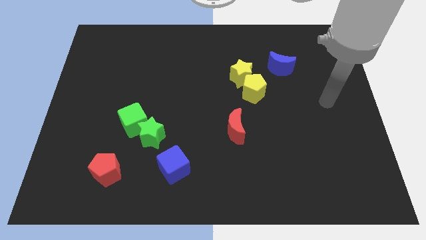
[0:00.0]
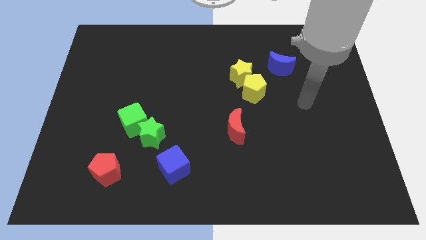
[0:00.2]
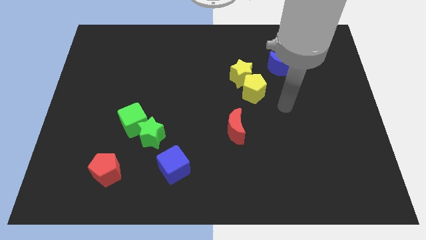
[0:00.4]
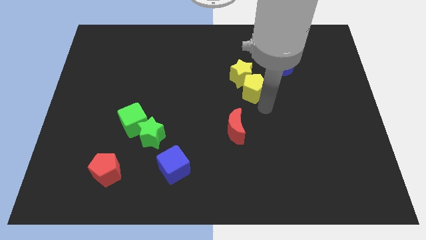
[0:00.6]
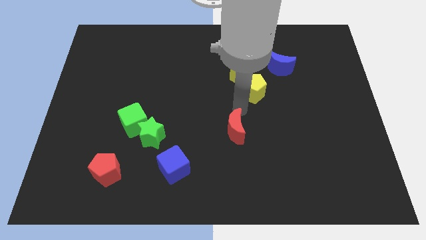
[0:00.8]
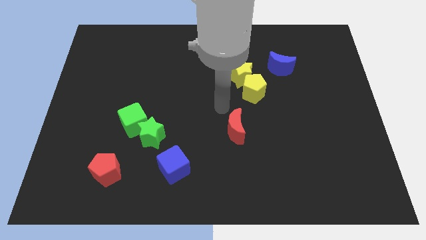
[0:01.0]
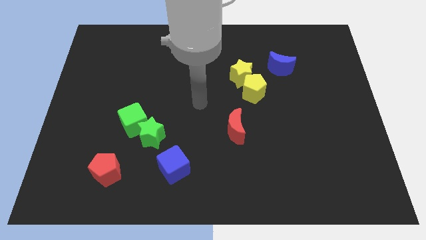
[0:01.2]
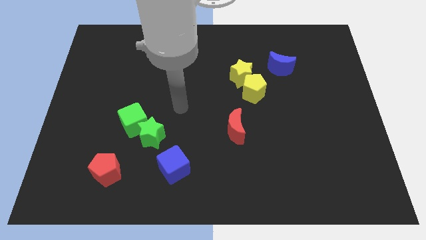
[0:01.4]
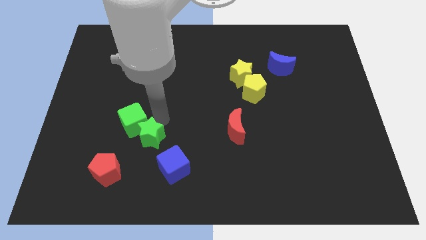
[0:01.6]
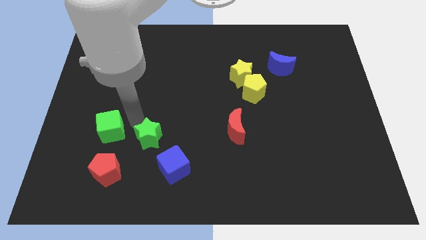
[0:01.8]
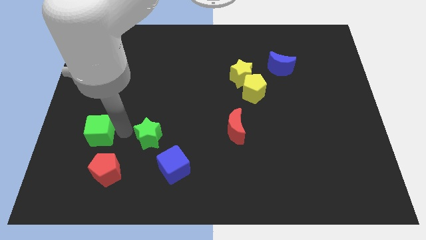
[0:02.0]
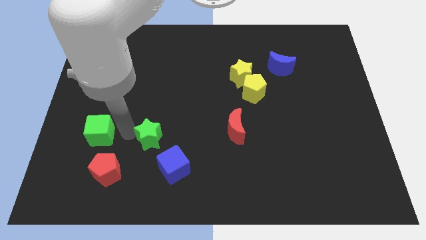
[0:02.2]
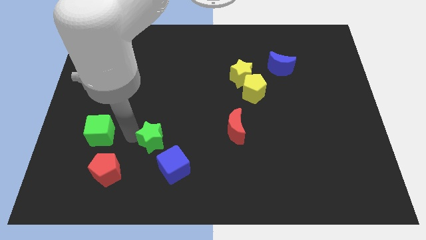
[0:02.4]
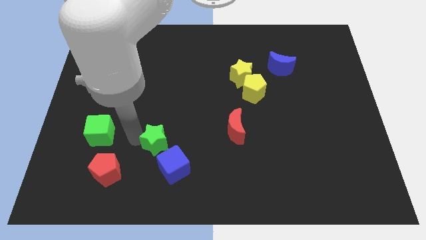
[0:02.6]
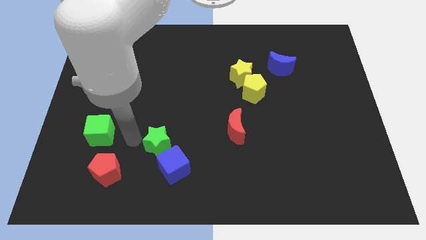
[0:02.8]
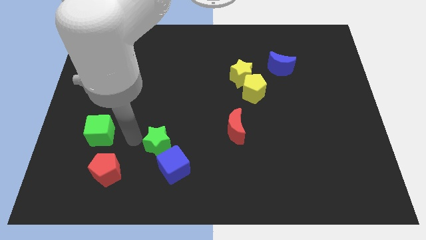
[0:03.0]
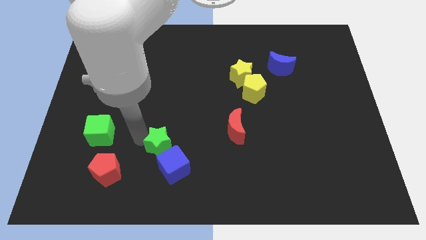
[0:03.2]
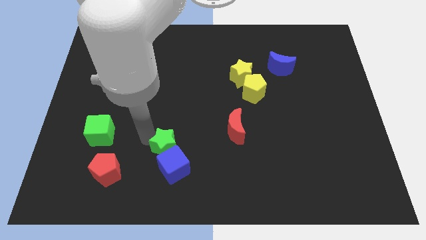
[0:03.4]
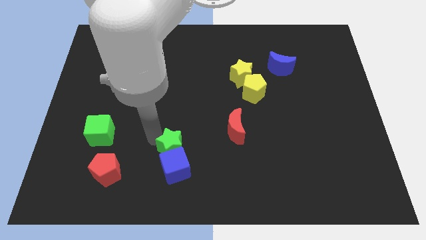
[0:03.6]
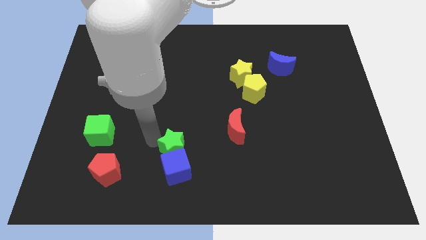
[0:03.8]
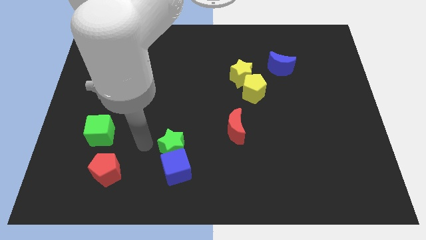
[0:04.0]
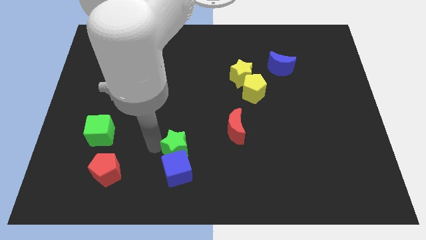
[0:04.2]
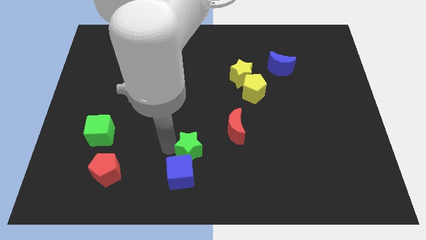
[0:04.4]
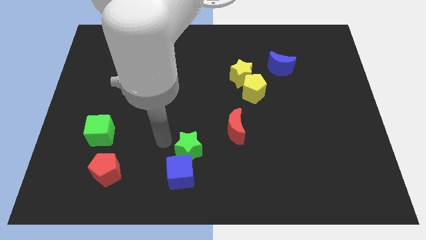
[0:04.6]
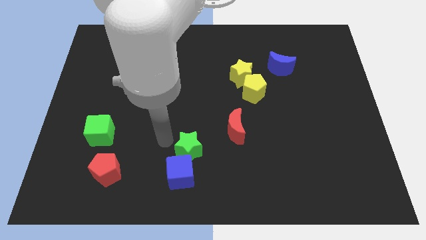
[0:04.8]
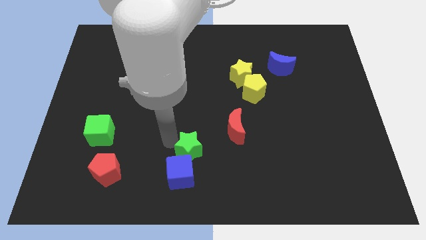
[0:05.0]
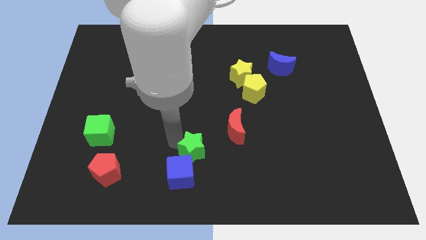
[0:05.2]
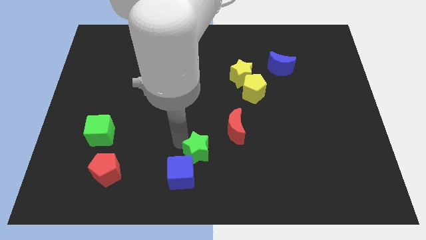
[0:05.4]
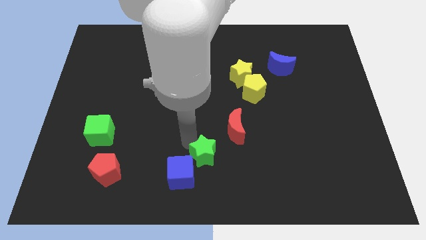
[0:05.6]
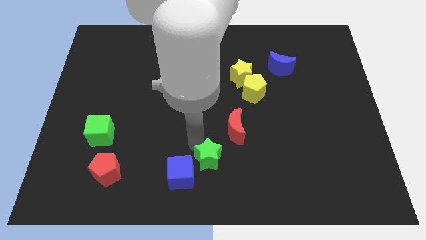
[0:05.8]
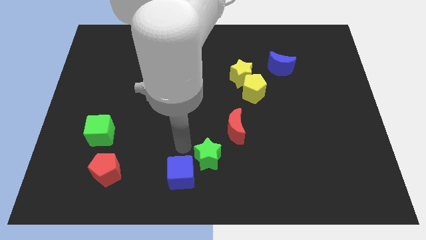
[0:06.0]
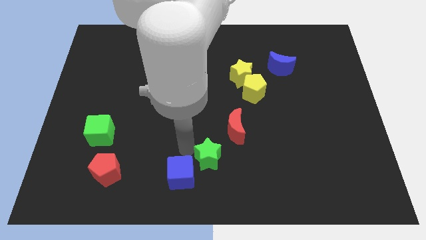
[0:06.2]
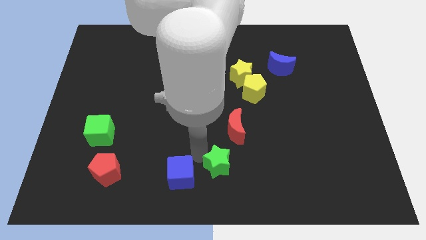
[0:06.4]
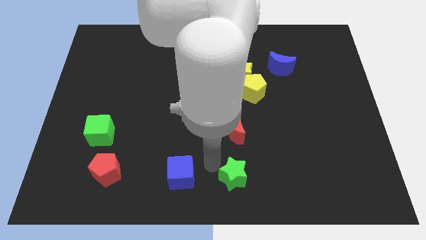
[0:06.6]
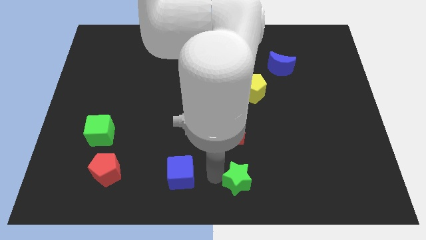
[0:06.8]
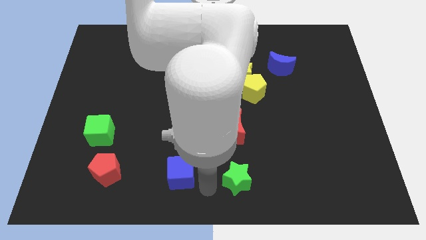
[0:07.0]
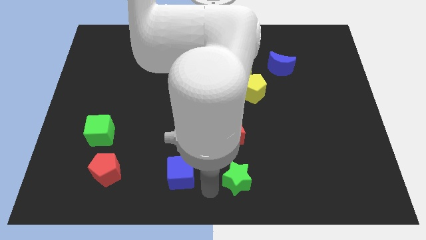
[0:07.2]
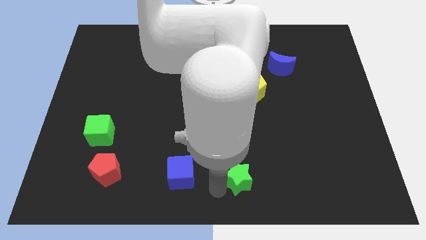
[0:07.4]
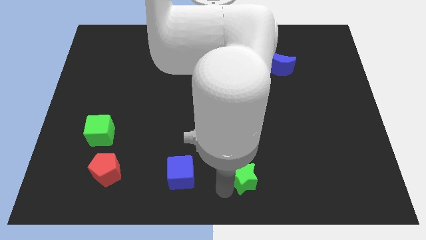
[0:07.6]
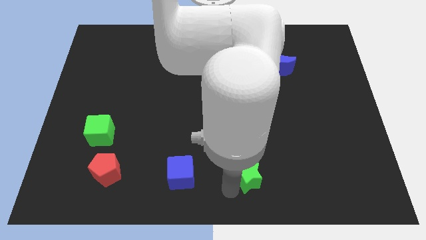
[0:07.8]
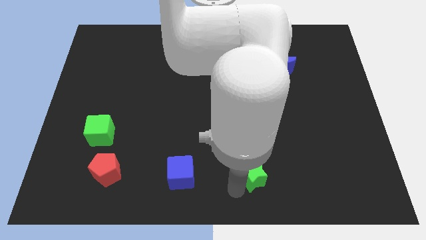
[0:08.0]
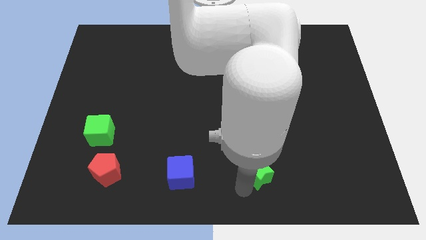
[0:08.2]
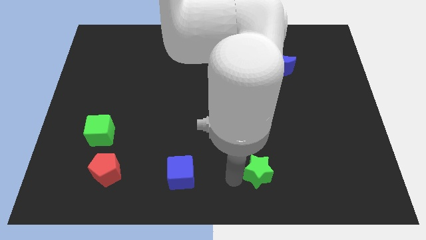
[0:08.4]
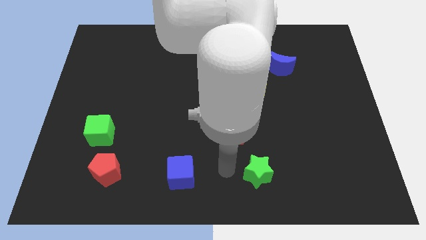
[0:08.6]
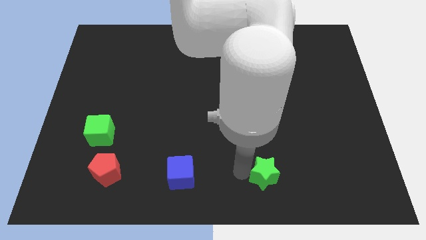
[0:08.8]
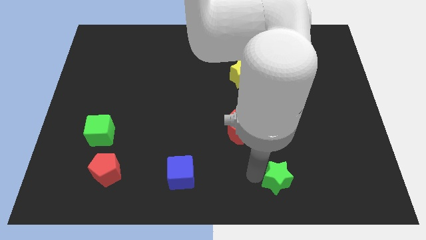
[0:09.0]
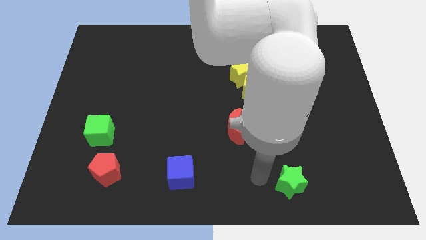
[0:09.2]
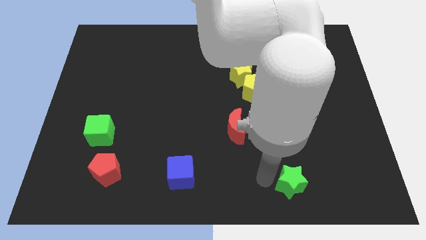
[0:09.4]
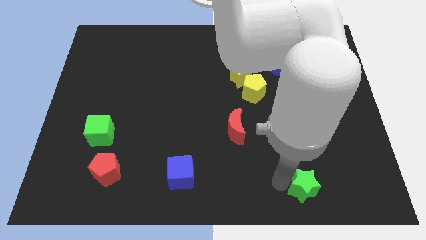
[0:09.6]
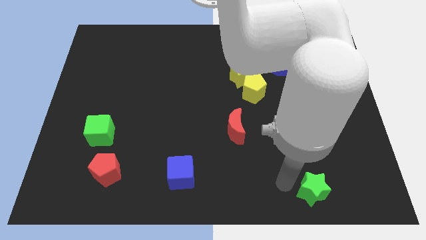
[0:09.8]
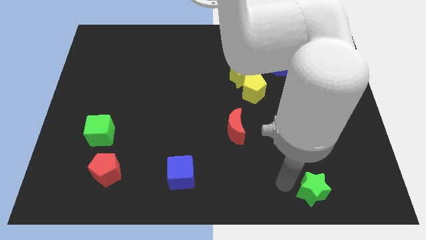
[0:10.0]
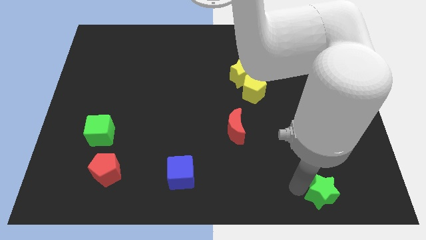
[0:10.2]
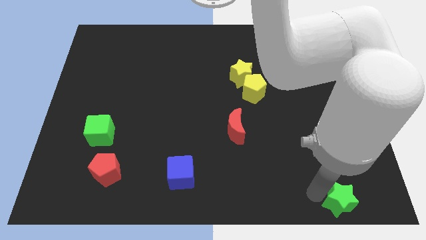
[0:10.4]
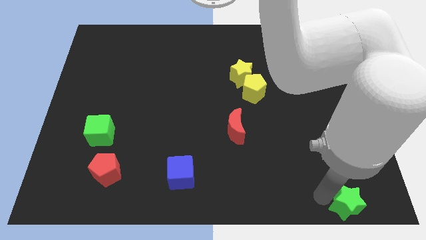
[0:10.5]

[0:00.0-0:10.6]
slide the green star to the bottom right corner

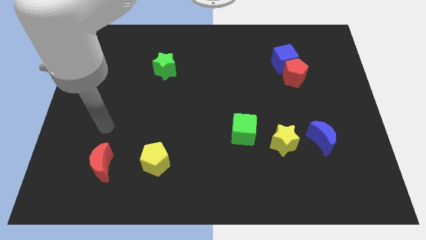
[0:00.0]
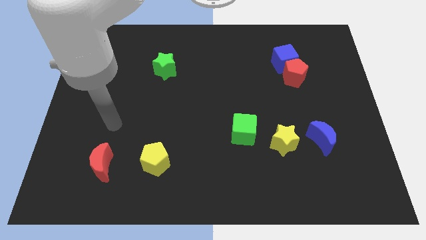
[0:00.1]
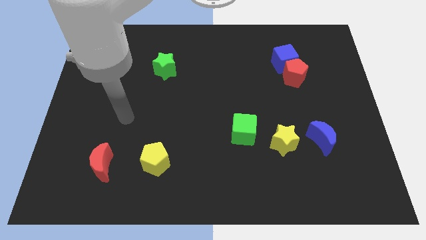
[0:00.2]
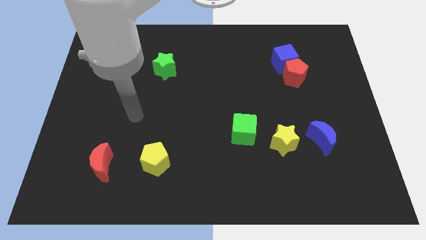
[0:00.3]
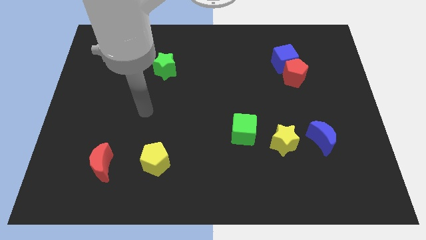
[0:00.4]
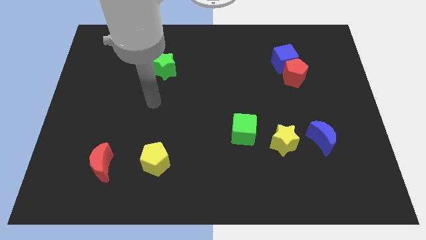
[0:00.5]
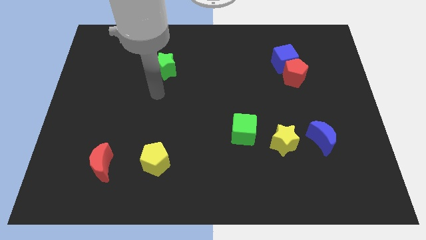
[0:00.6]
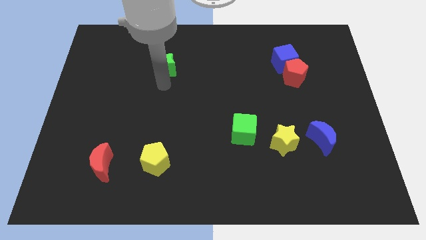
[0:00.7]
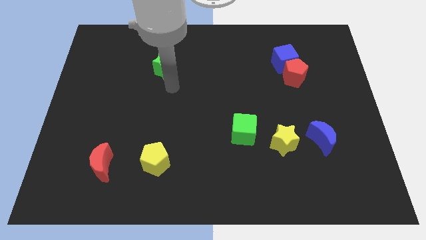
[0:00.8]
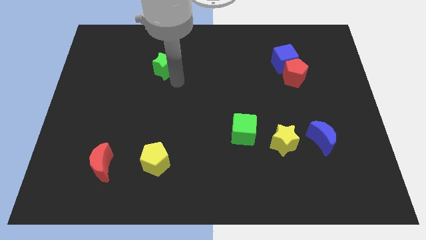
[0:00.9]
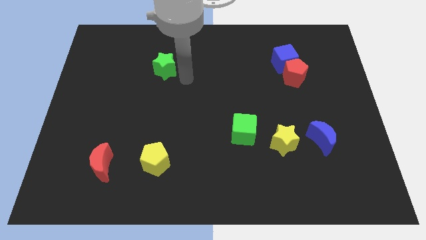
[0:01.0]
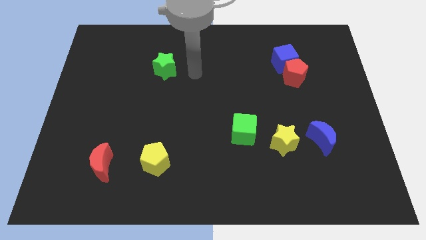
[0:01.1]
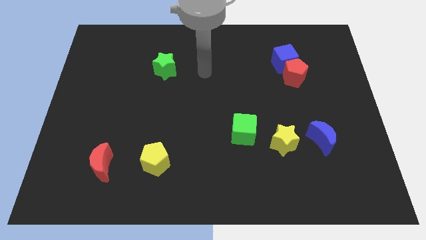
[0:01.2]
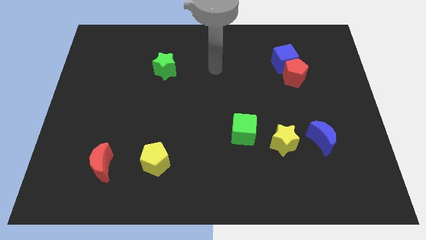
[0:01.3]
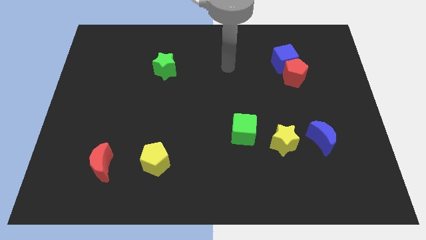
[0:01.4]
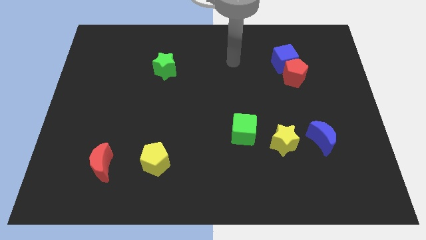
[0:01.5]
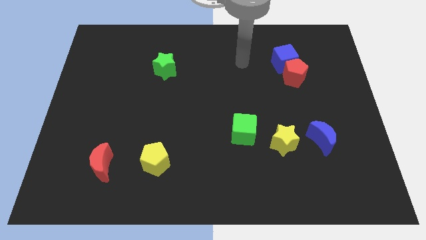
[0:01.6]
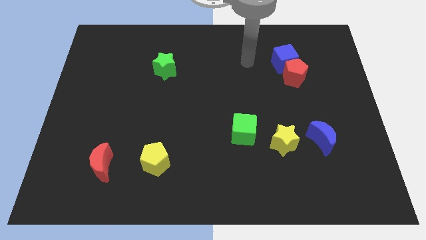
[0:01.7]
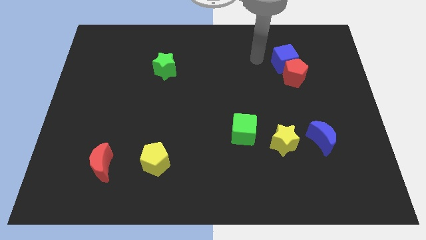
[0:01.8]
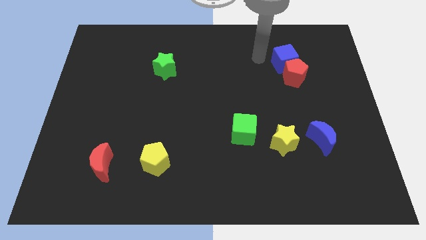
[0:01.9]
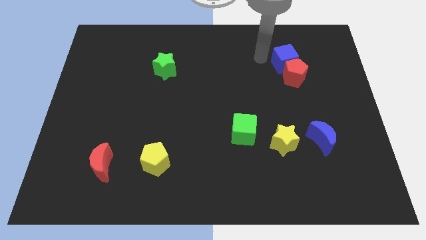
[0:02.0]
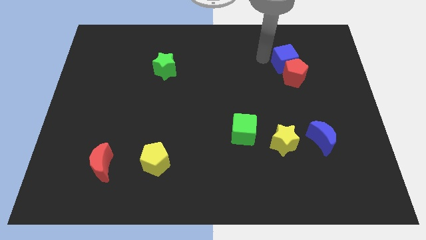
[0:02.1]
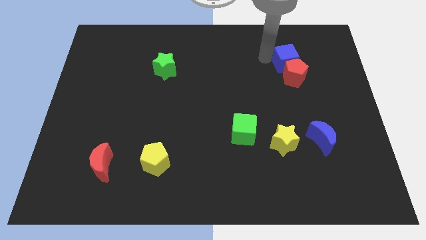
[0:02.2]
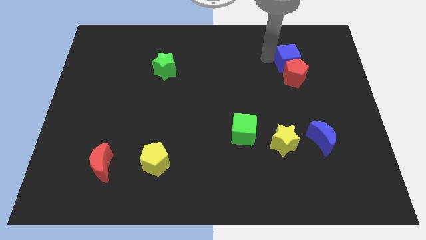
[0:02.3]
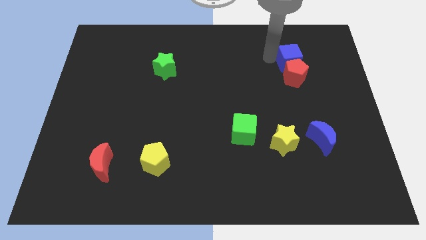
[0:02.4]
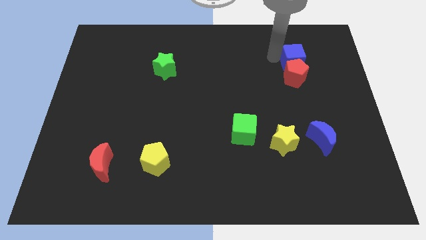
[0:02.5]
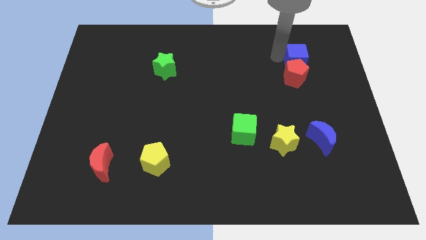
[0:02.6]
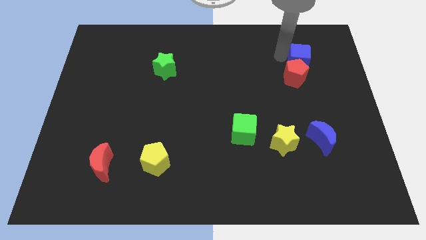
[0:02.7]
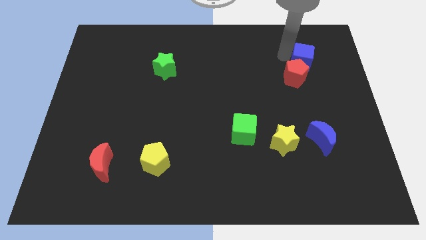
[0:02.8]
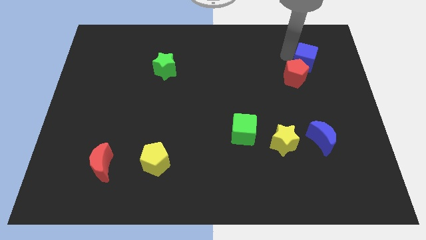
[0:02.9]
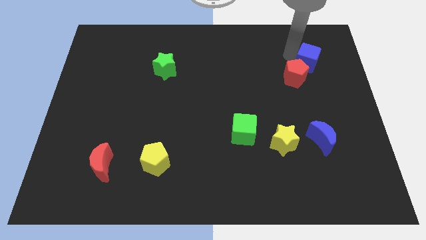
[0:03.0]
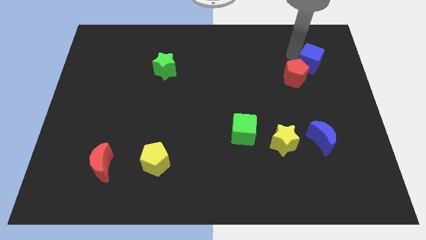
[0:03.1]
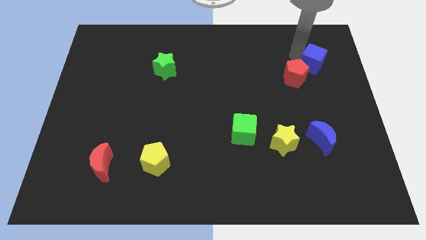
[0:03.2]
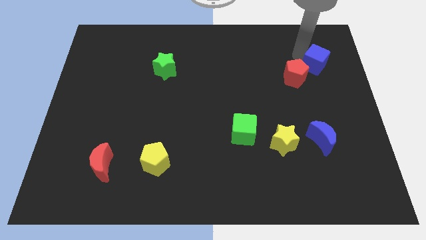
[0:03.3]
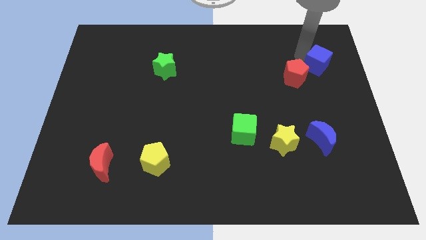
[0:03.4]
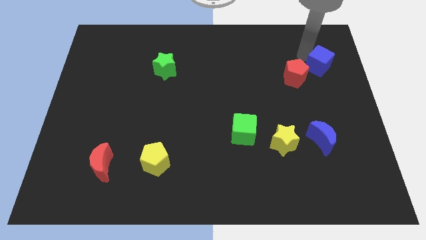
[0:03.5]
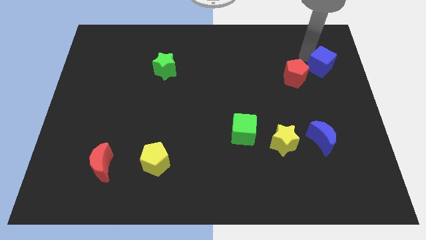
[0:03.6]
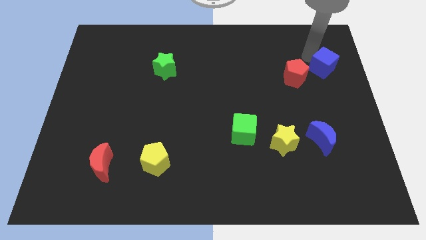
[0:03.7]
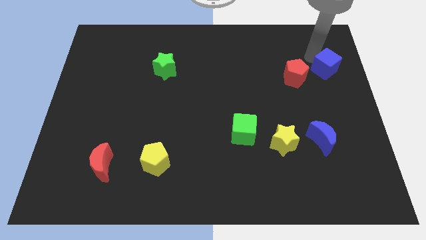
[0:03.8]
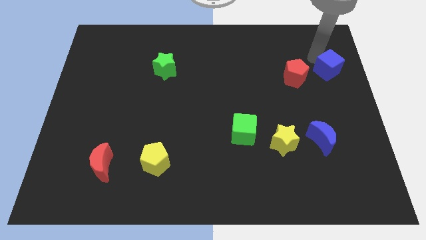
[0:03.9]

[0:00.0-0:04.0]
put the blue cube to the right side
